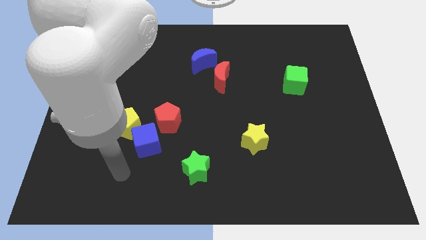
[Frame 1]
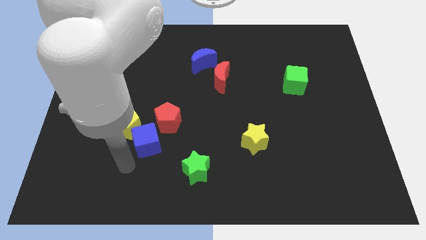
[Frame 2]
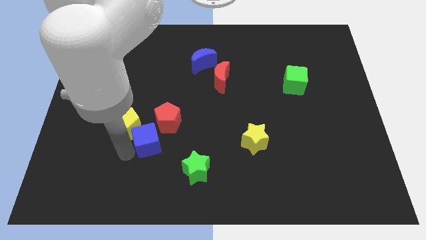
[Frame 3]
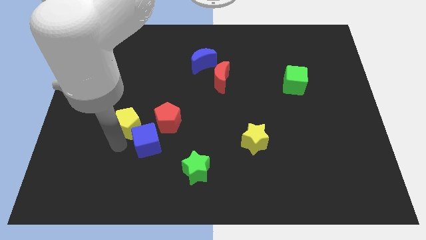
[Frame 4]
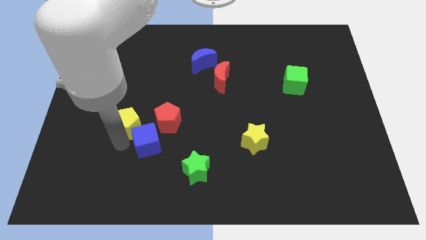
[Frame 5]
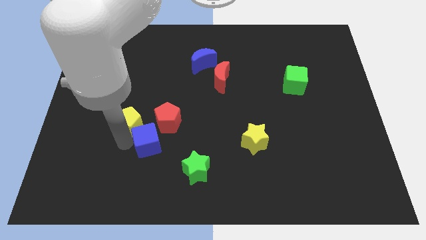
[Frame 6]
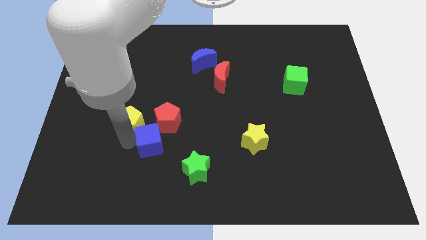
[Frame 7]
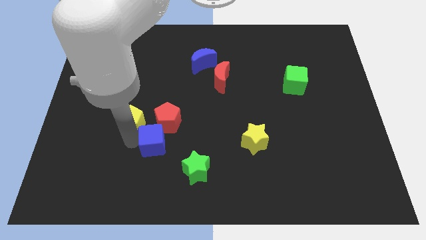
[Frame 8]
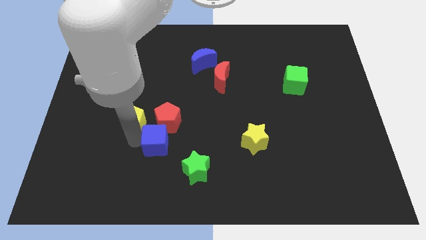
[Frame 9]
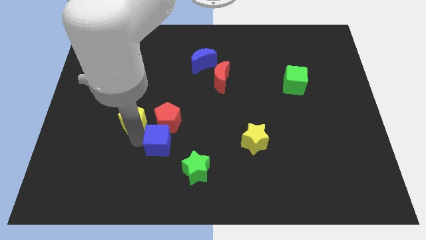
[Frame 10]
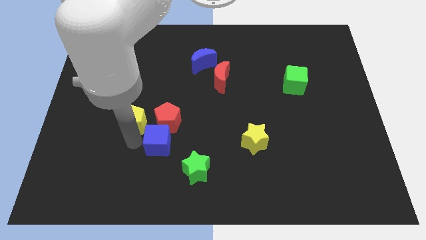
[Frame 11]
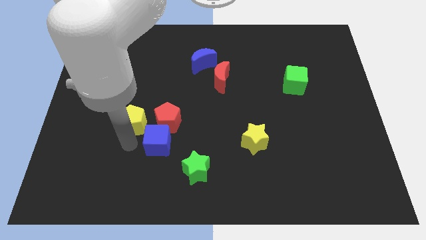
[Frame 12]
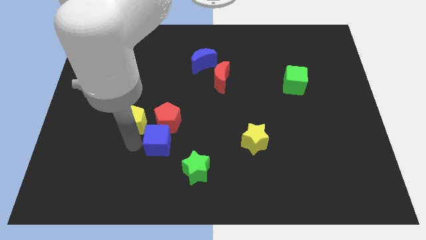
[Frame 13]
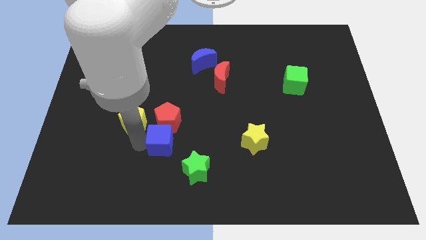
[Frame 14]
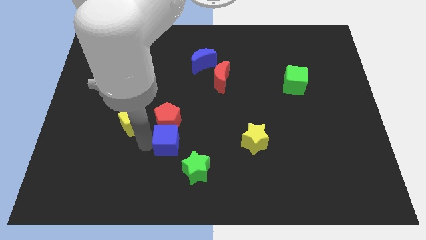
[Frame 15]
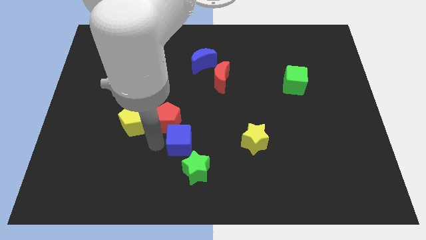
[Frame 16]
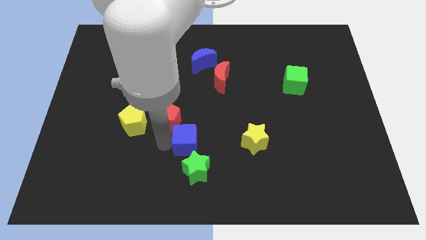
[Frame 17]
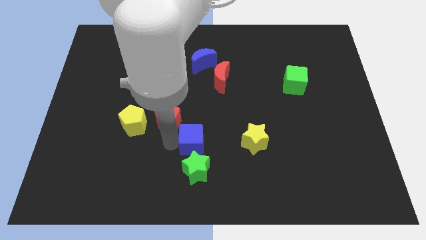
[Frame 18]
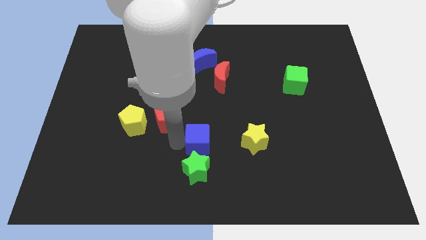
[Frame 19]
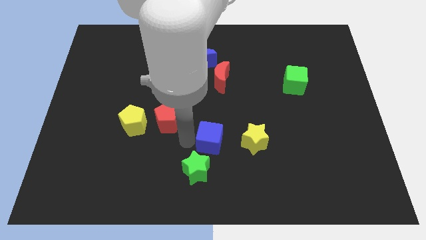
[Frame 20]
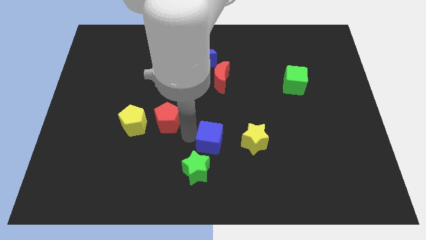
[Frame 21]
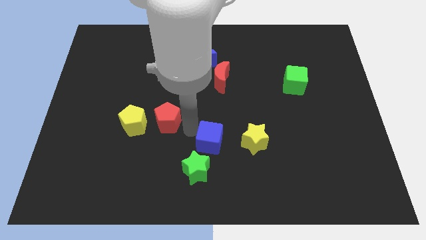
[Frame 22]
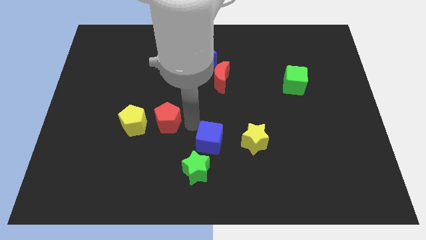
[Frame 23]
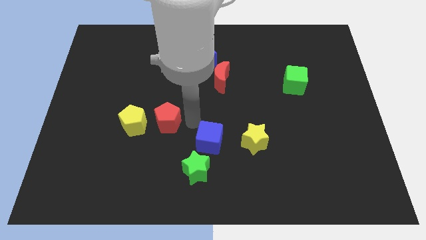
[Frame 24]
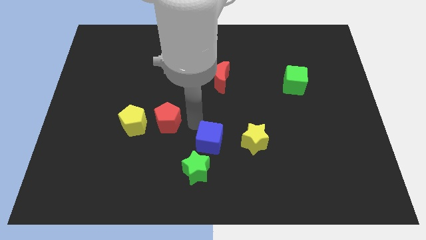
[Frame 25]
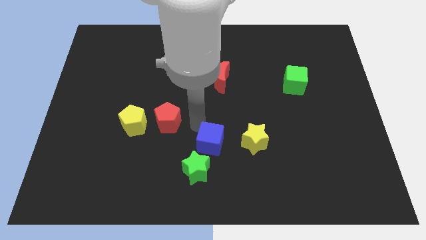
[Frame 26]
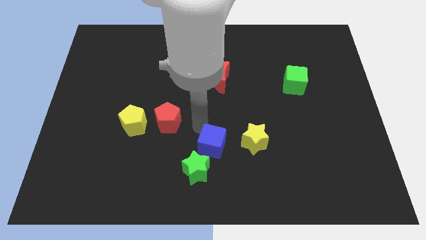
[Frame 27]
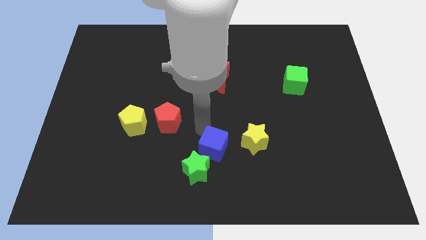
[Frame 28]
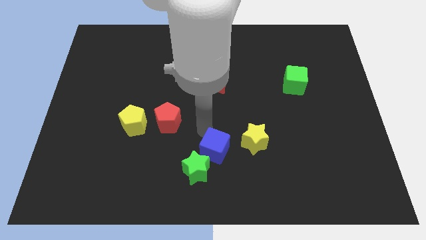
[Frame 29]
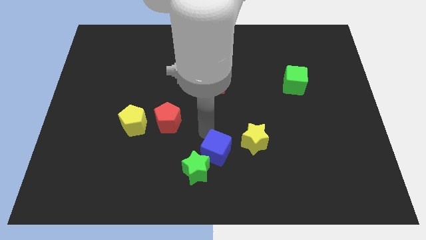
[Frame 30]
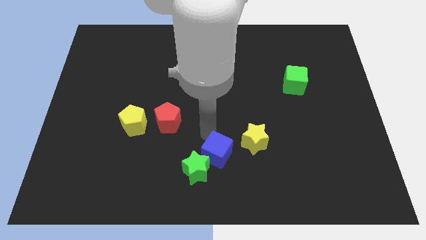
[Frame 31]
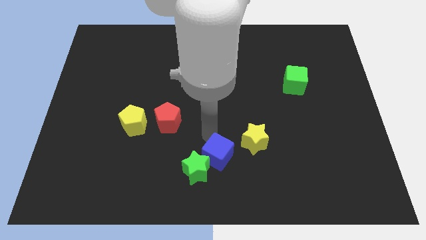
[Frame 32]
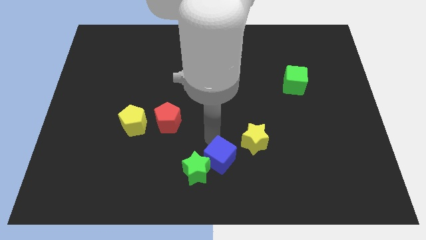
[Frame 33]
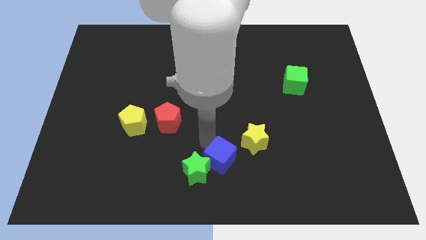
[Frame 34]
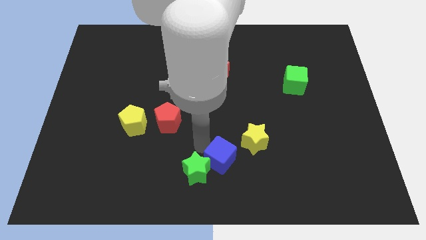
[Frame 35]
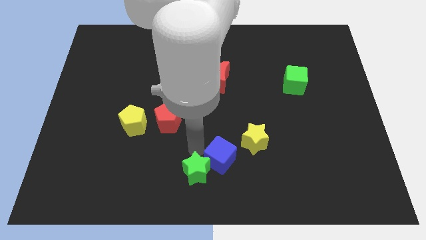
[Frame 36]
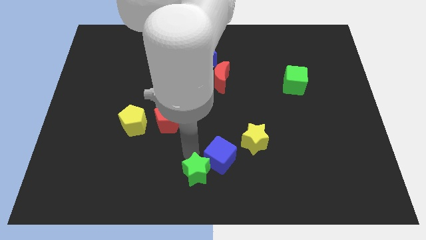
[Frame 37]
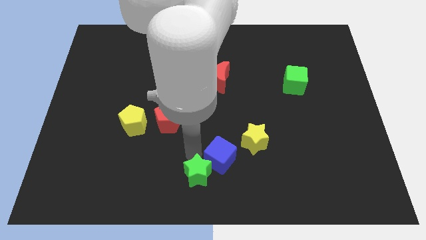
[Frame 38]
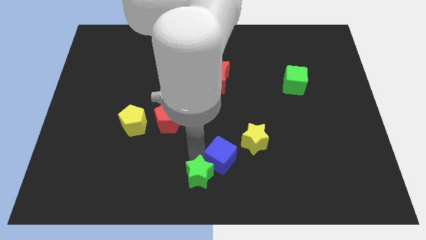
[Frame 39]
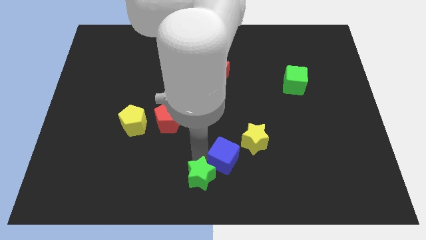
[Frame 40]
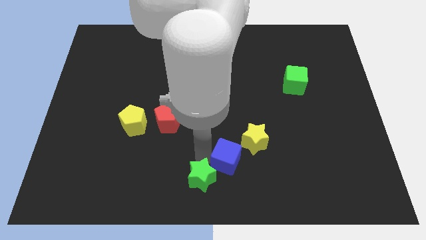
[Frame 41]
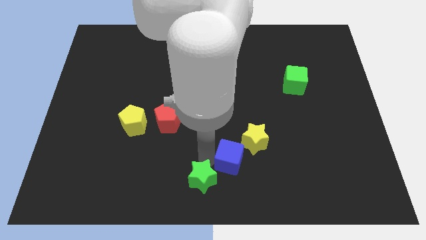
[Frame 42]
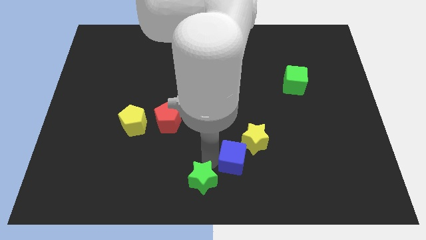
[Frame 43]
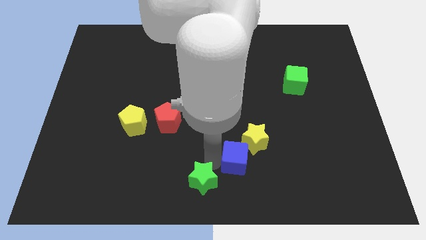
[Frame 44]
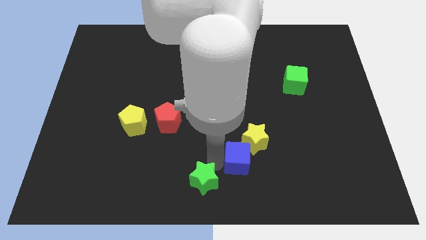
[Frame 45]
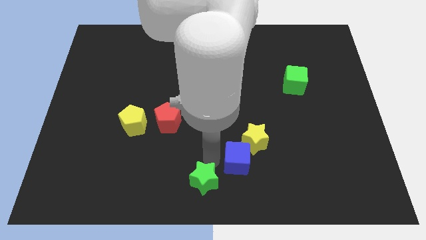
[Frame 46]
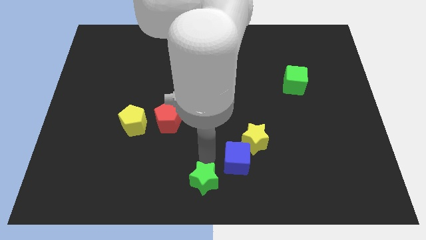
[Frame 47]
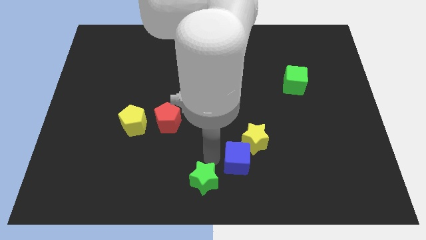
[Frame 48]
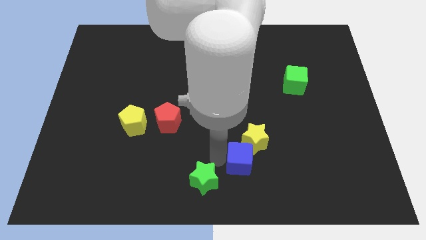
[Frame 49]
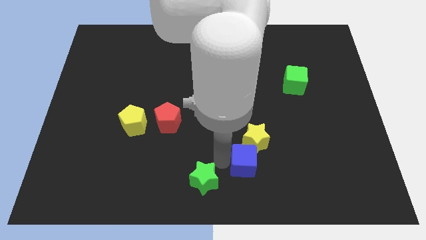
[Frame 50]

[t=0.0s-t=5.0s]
slide the blue cube right

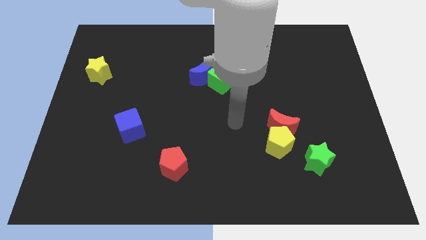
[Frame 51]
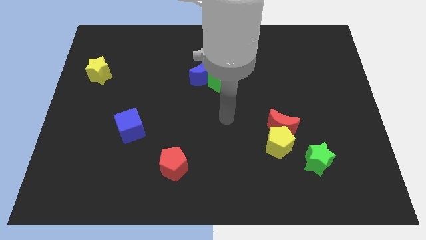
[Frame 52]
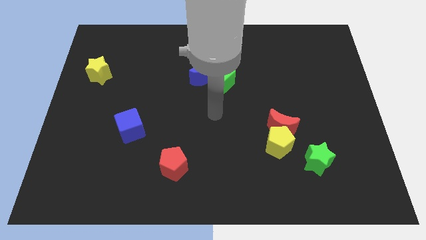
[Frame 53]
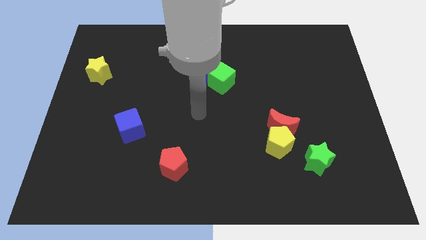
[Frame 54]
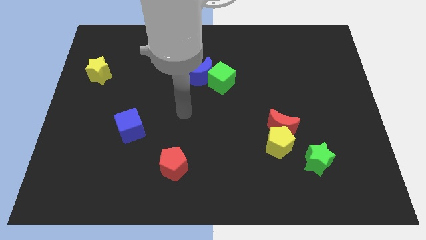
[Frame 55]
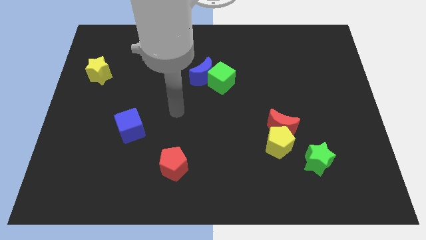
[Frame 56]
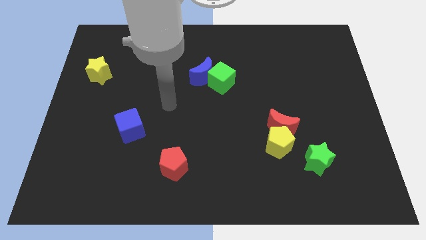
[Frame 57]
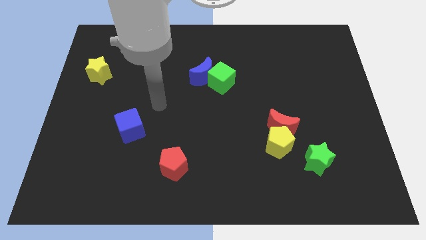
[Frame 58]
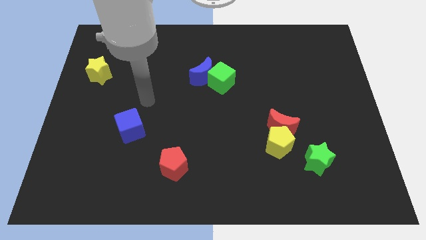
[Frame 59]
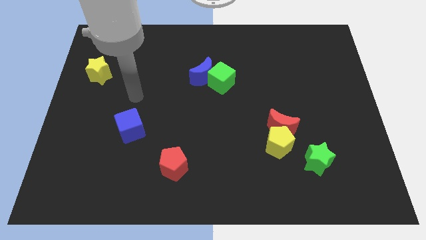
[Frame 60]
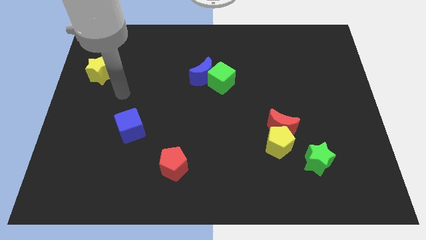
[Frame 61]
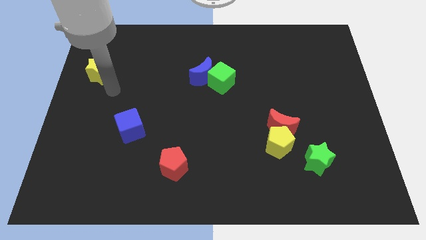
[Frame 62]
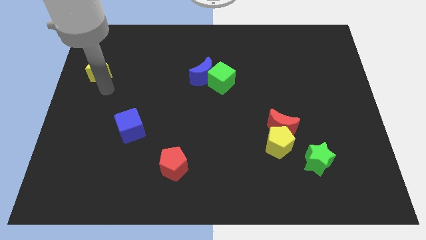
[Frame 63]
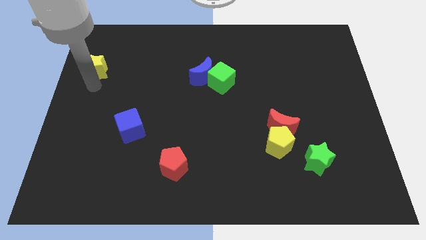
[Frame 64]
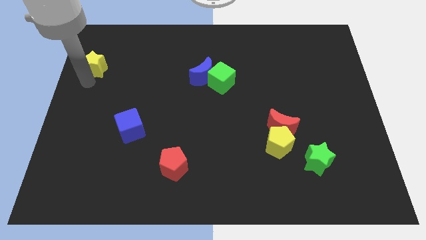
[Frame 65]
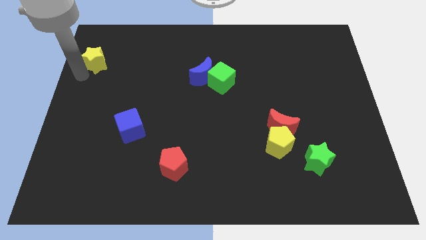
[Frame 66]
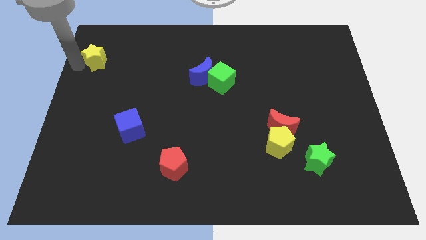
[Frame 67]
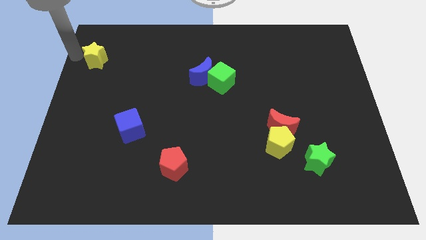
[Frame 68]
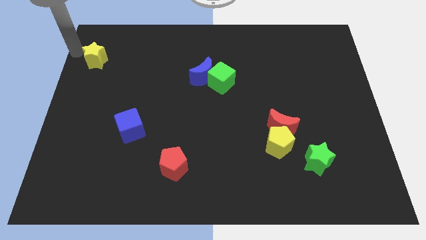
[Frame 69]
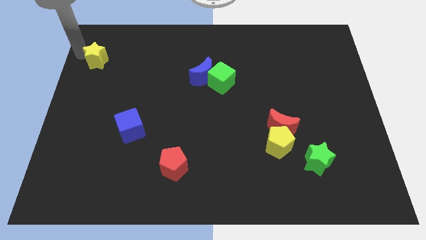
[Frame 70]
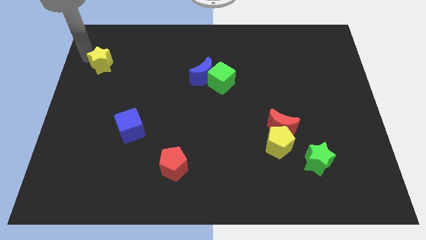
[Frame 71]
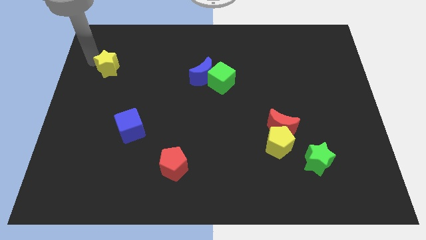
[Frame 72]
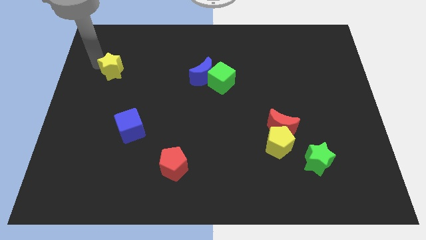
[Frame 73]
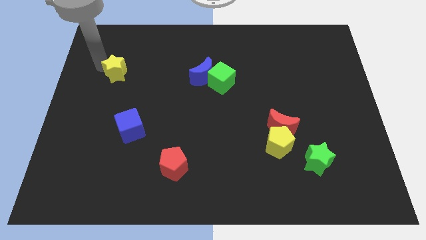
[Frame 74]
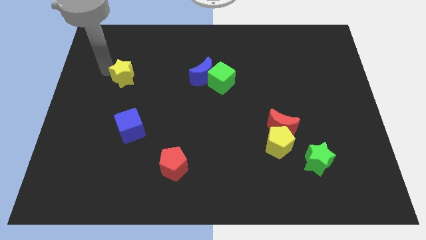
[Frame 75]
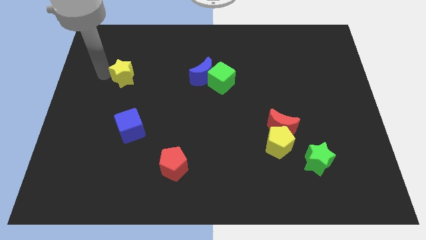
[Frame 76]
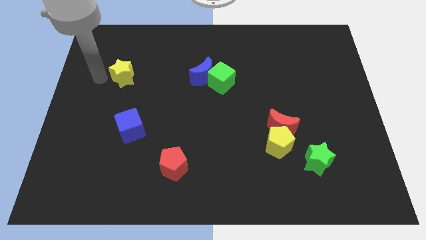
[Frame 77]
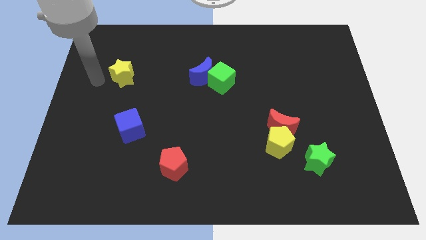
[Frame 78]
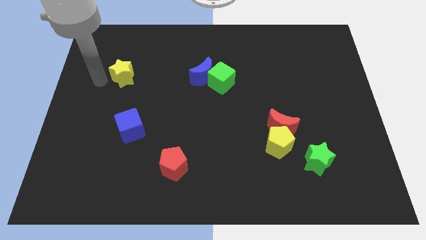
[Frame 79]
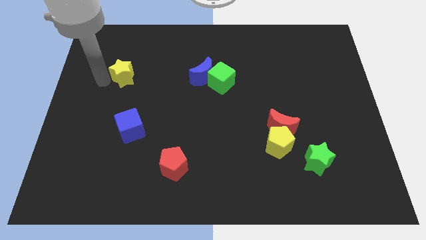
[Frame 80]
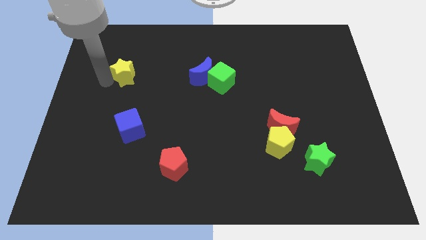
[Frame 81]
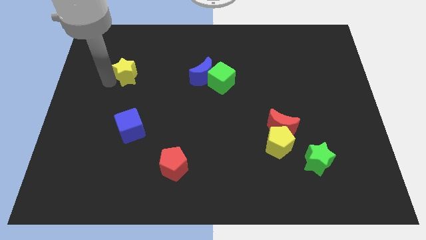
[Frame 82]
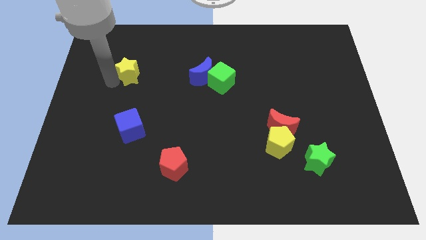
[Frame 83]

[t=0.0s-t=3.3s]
slightly slide the yellow star to the right
